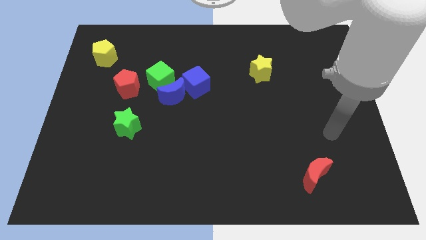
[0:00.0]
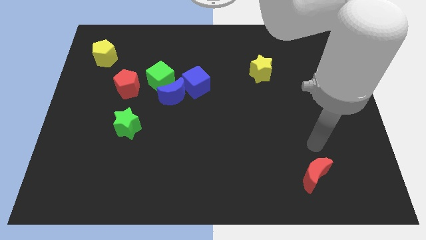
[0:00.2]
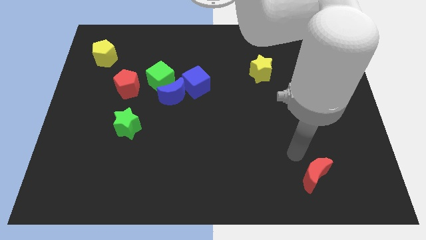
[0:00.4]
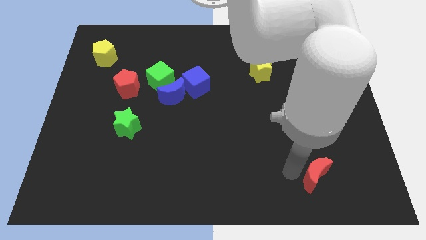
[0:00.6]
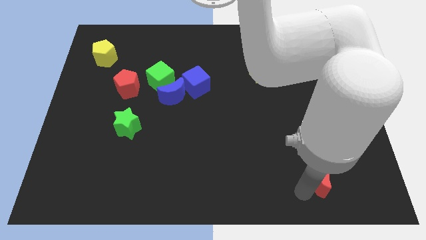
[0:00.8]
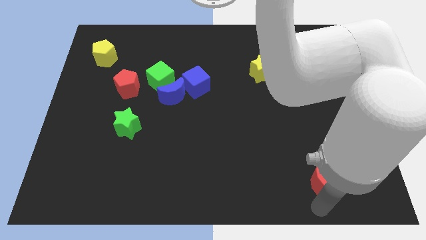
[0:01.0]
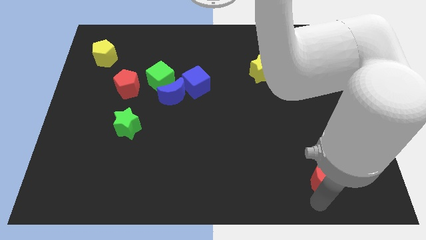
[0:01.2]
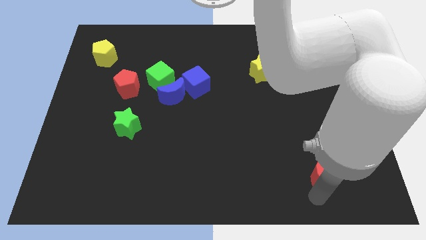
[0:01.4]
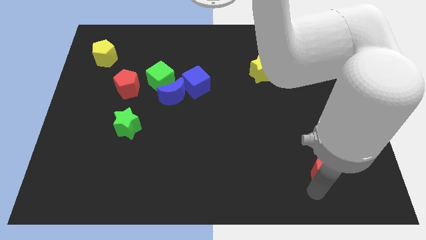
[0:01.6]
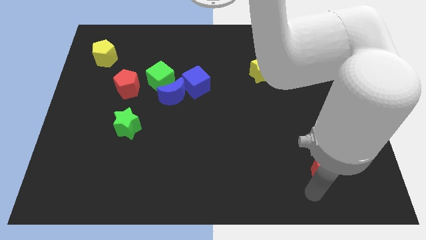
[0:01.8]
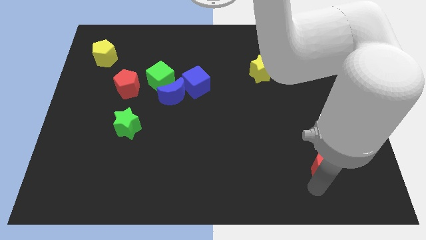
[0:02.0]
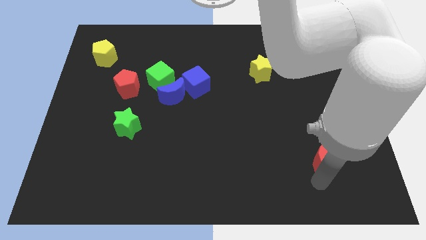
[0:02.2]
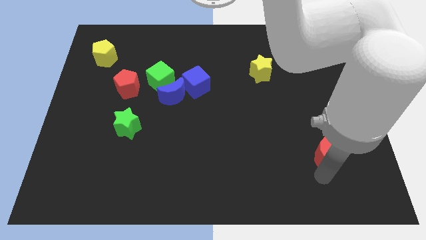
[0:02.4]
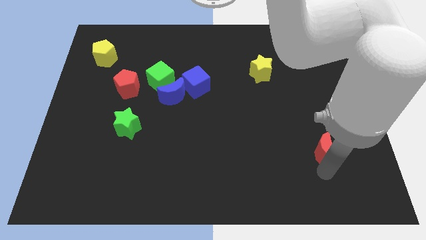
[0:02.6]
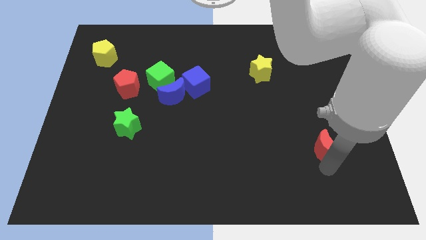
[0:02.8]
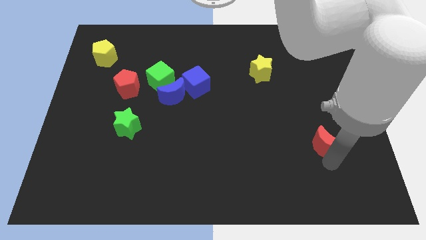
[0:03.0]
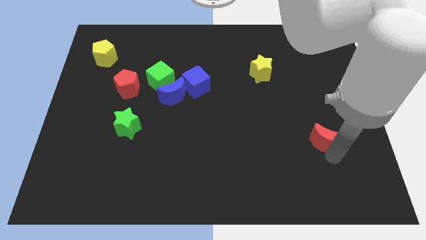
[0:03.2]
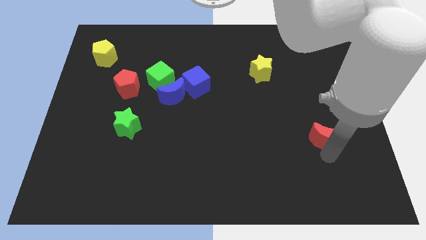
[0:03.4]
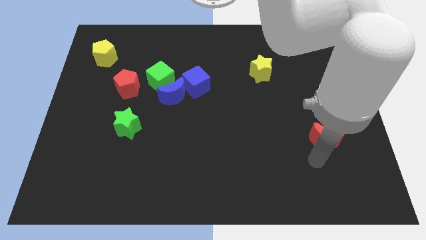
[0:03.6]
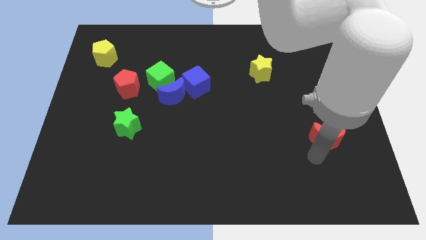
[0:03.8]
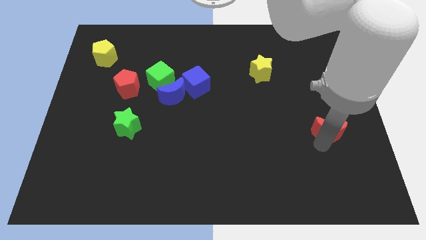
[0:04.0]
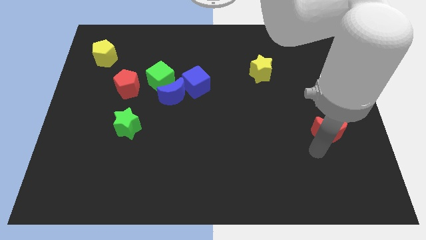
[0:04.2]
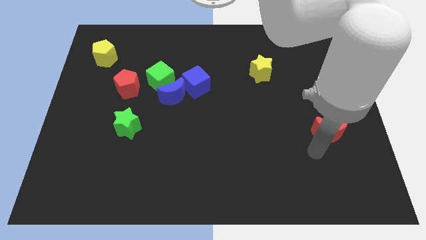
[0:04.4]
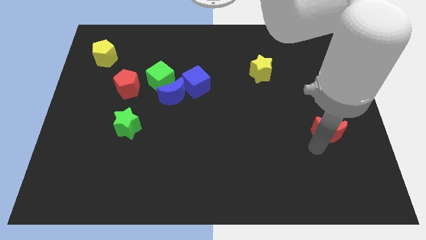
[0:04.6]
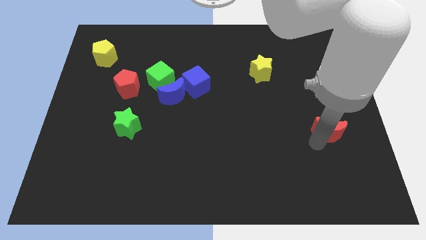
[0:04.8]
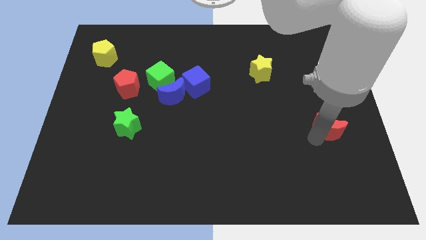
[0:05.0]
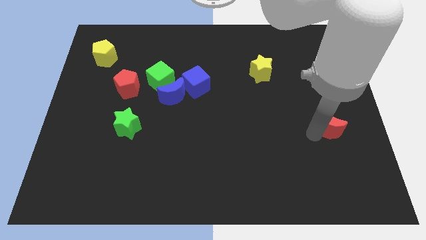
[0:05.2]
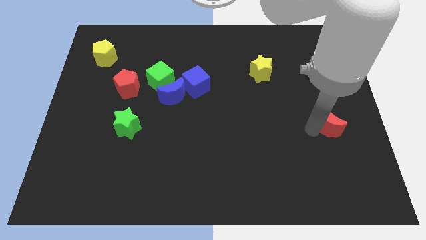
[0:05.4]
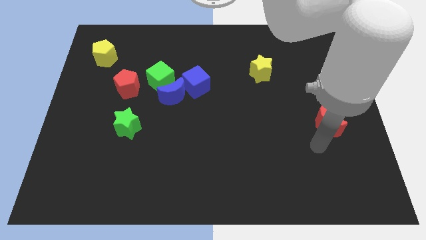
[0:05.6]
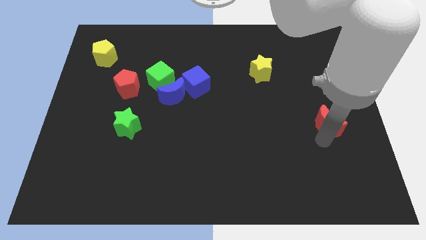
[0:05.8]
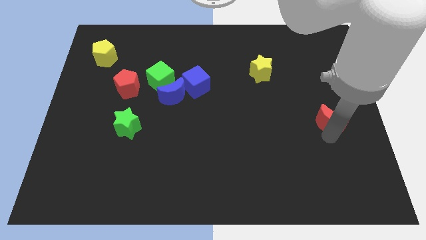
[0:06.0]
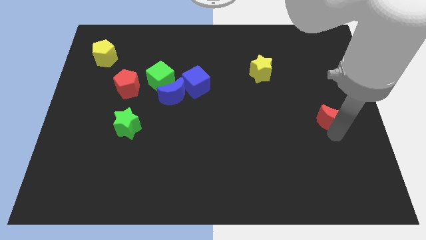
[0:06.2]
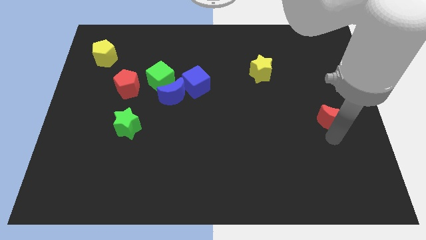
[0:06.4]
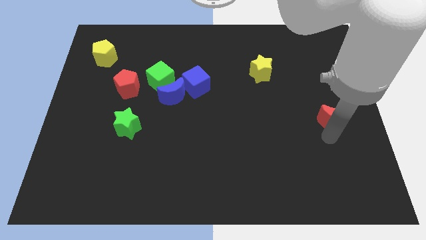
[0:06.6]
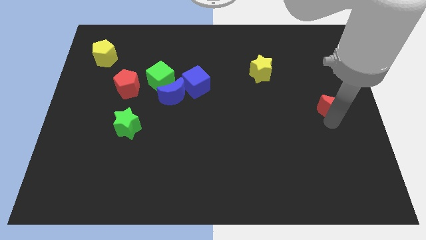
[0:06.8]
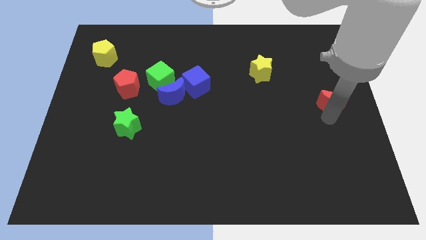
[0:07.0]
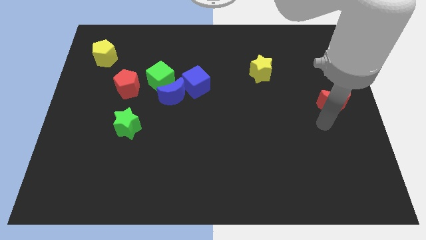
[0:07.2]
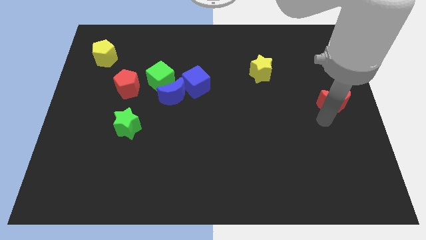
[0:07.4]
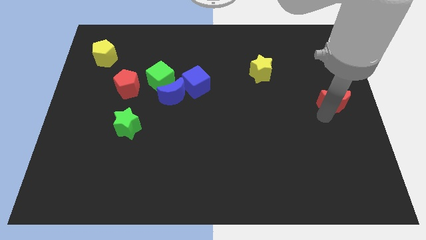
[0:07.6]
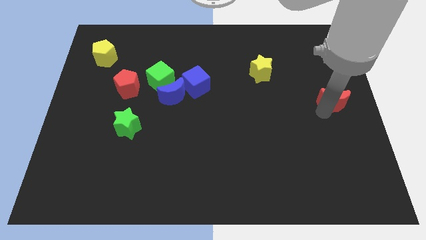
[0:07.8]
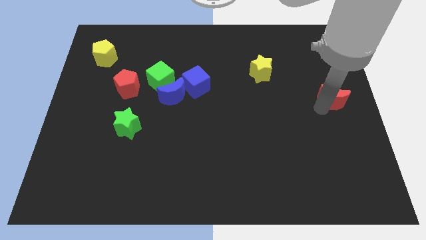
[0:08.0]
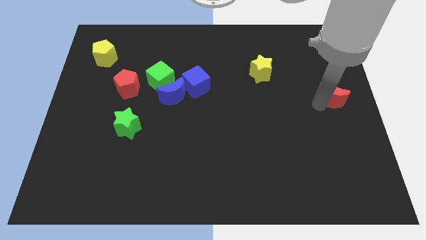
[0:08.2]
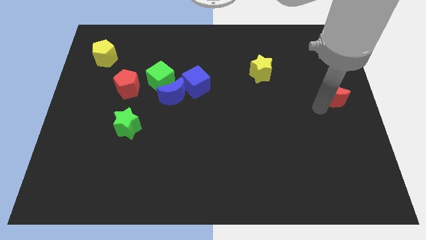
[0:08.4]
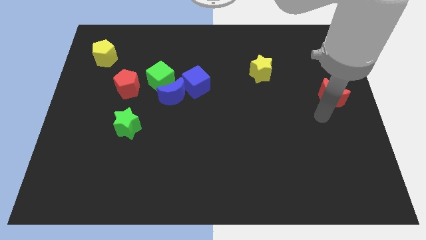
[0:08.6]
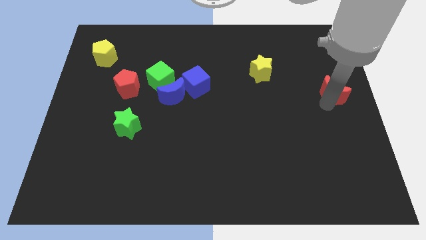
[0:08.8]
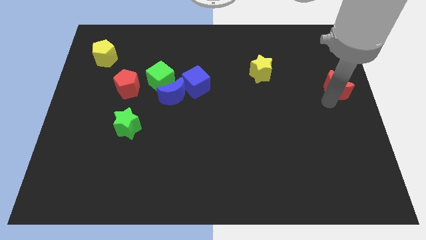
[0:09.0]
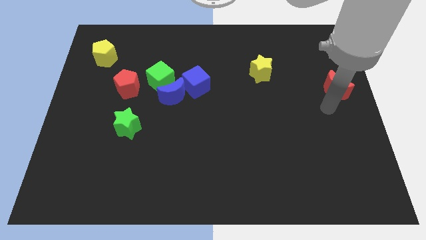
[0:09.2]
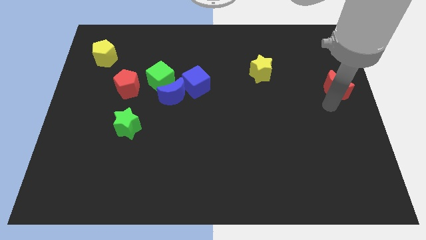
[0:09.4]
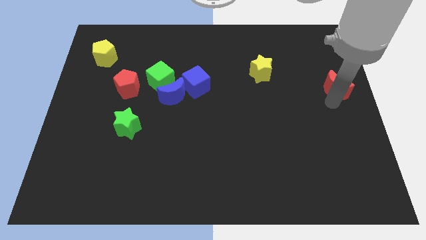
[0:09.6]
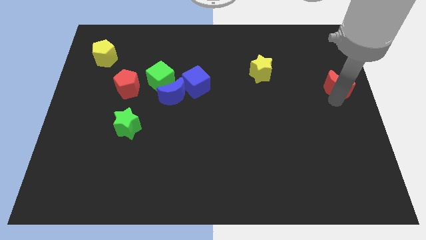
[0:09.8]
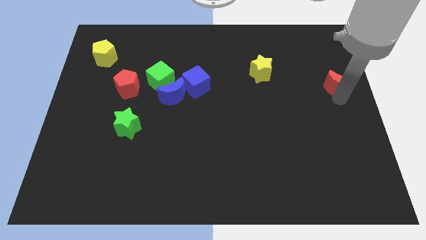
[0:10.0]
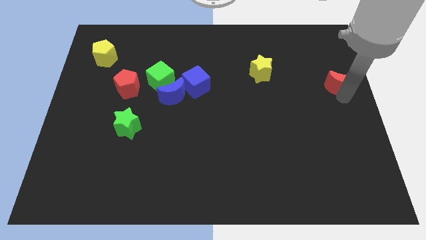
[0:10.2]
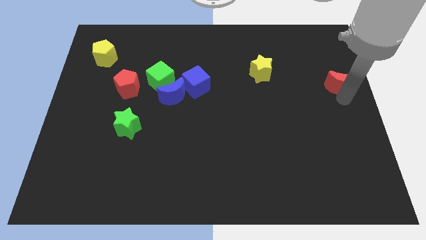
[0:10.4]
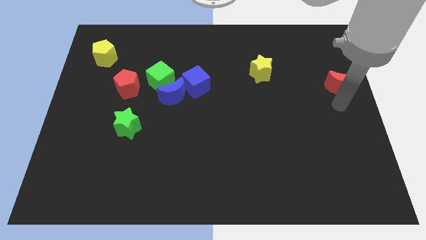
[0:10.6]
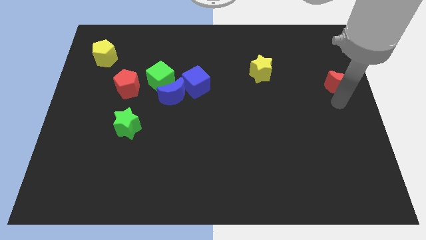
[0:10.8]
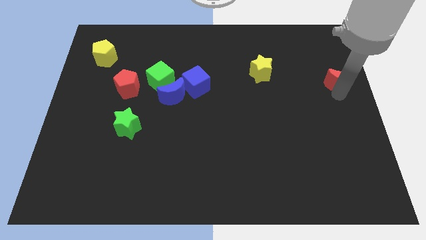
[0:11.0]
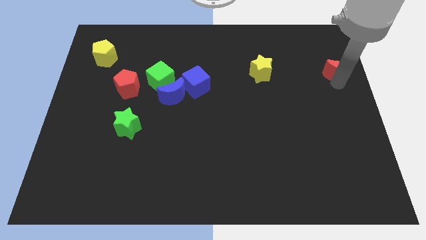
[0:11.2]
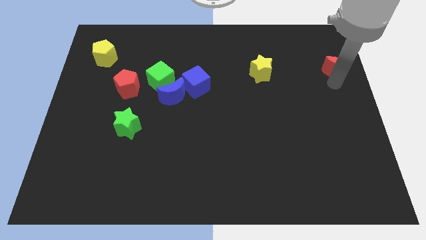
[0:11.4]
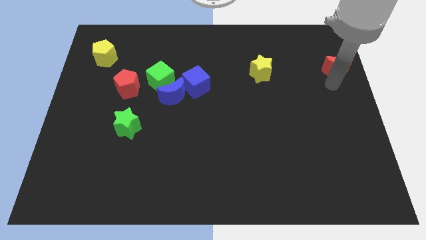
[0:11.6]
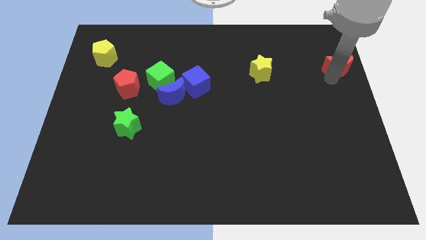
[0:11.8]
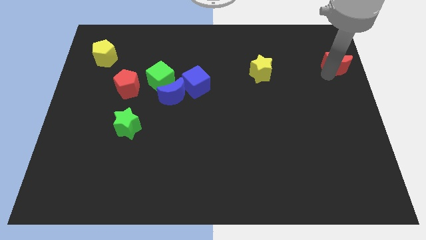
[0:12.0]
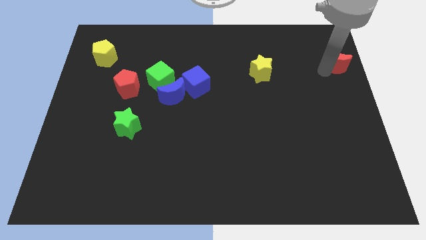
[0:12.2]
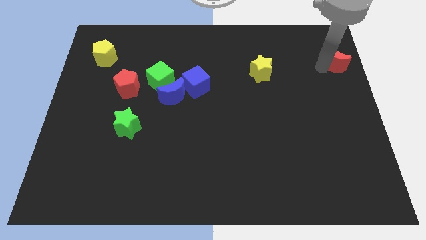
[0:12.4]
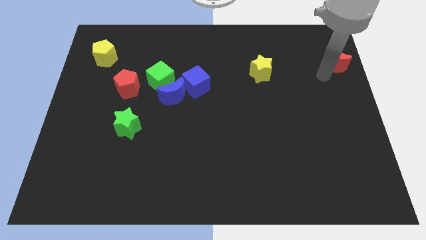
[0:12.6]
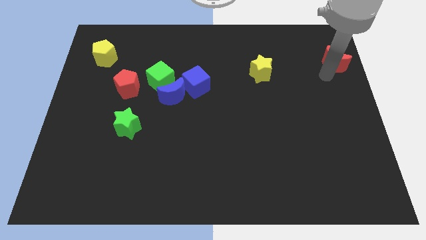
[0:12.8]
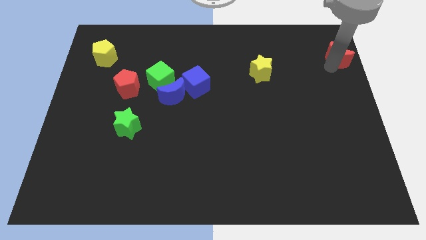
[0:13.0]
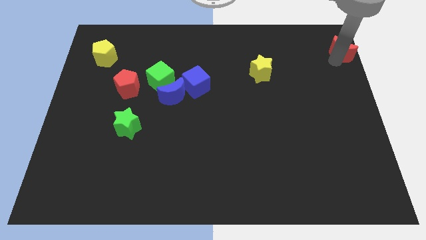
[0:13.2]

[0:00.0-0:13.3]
push the red moon to the top right corner
